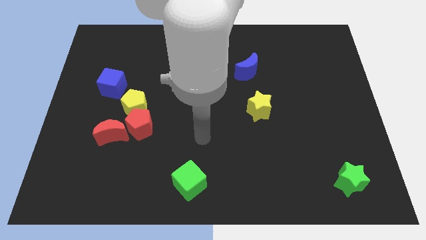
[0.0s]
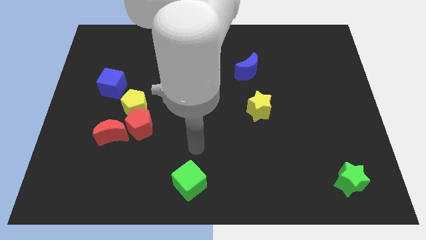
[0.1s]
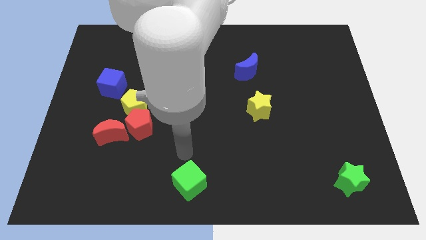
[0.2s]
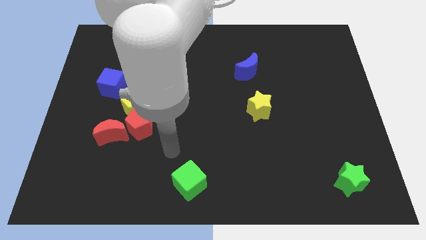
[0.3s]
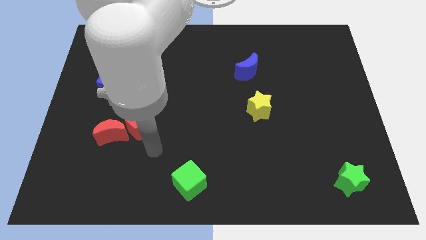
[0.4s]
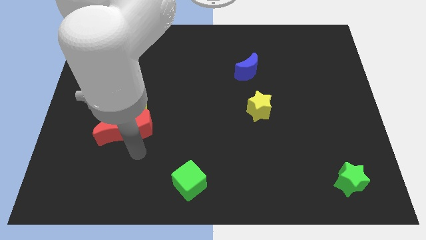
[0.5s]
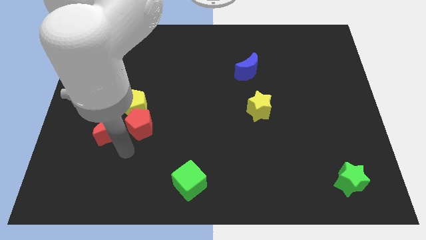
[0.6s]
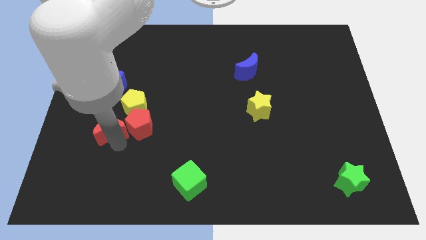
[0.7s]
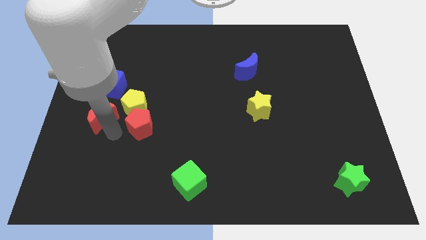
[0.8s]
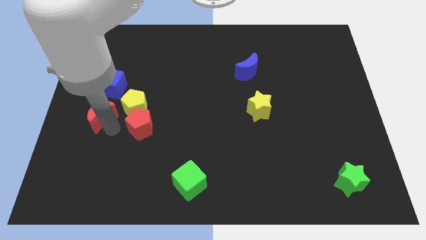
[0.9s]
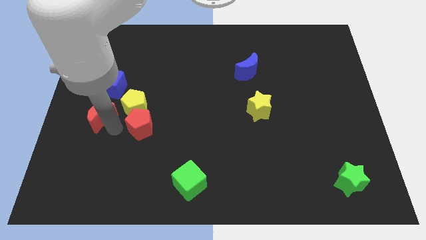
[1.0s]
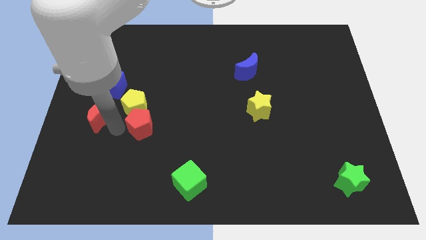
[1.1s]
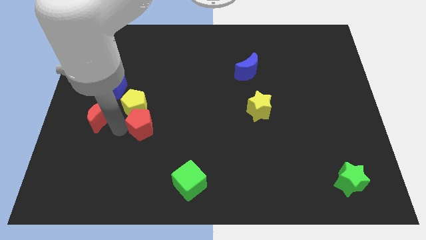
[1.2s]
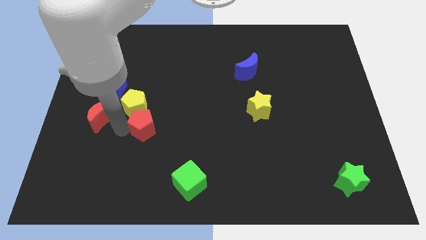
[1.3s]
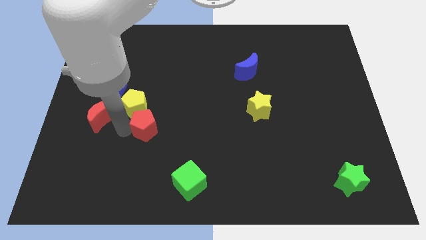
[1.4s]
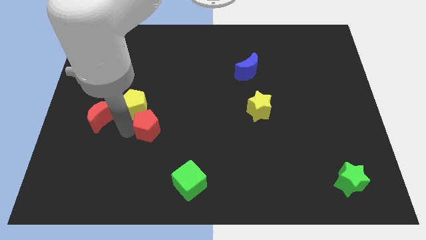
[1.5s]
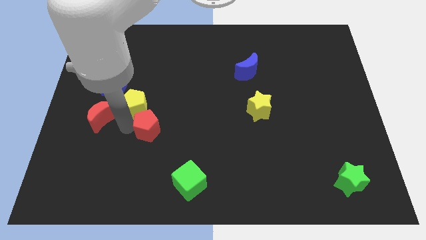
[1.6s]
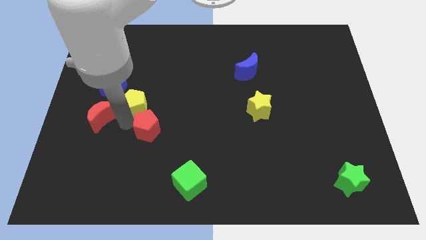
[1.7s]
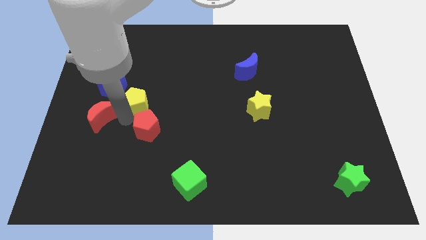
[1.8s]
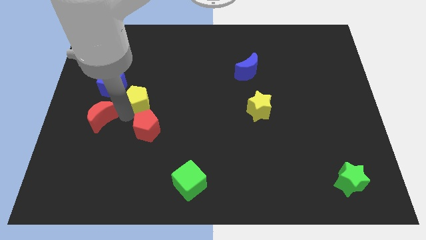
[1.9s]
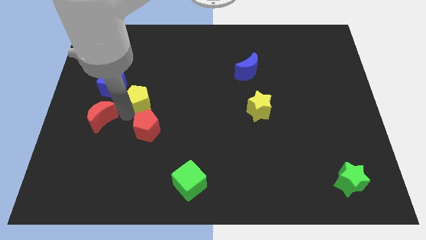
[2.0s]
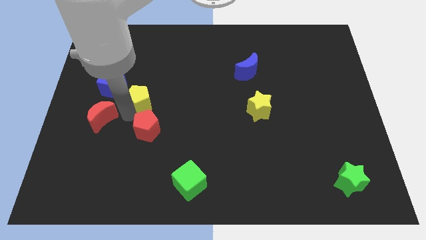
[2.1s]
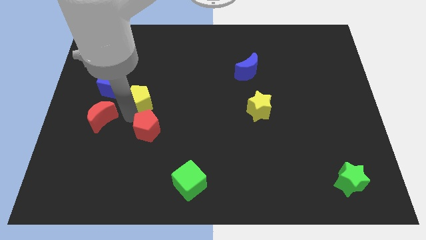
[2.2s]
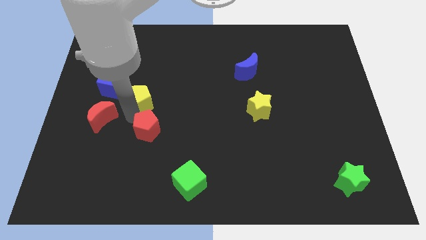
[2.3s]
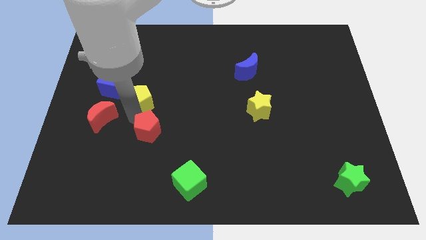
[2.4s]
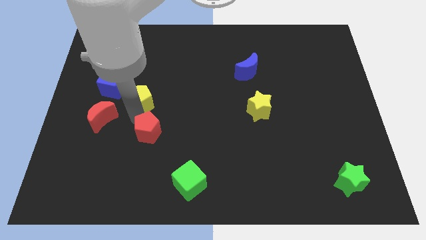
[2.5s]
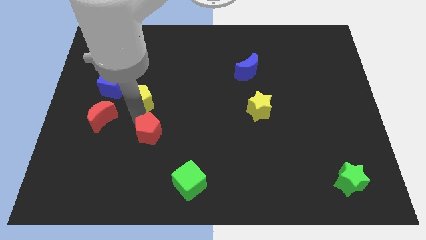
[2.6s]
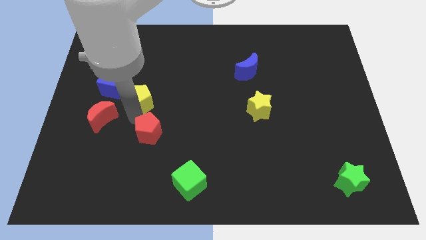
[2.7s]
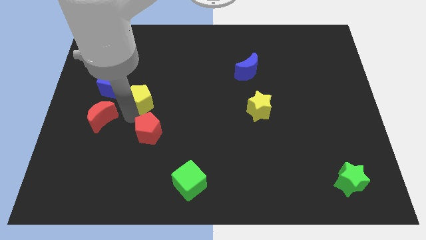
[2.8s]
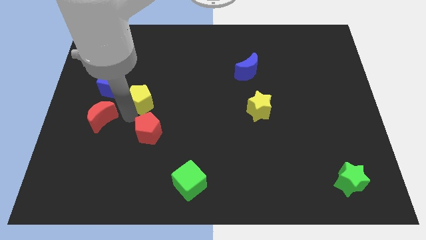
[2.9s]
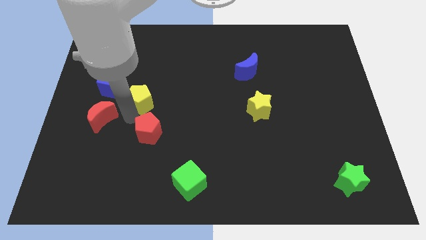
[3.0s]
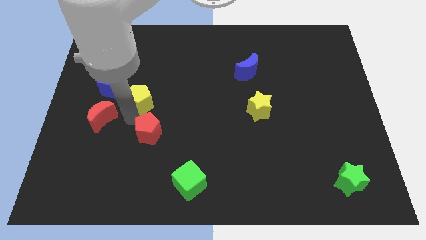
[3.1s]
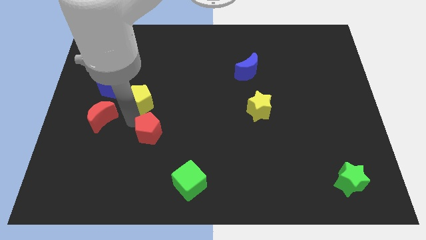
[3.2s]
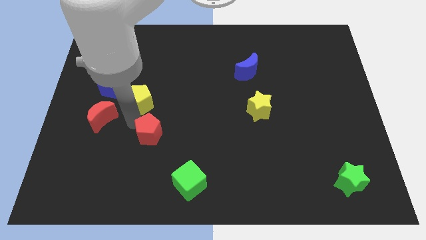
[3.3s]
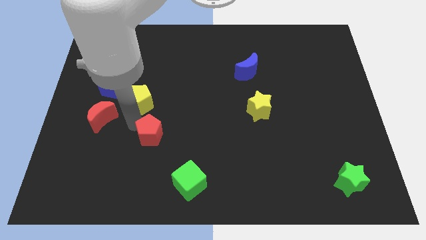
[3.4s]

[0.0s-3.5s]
pull the red pentagon apart from the yellow pentagon and red moon

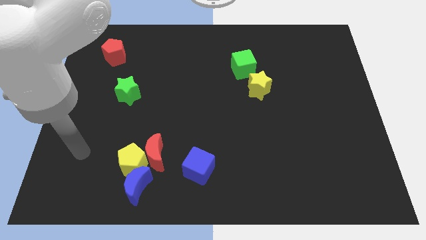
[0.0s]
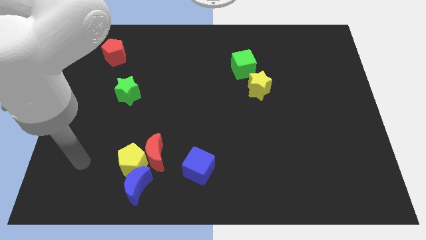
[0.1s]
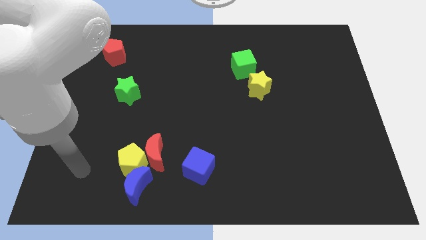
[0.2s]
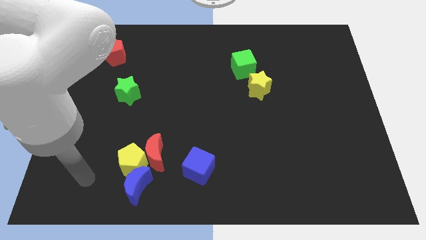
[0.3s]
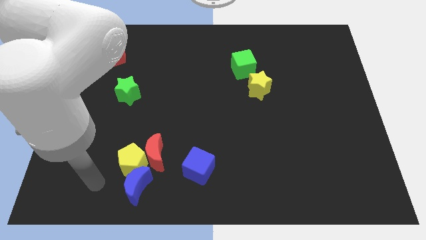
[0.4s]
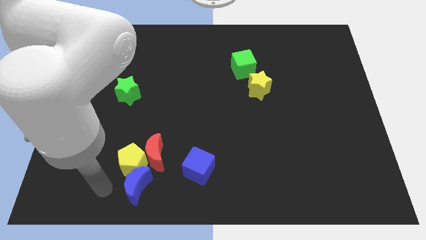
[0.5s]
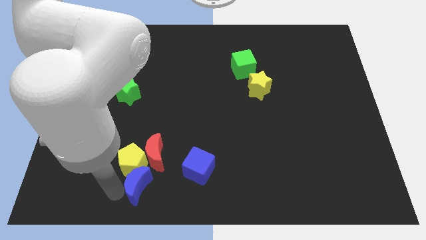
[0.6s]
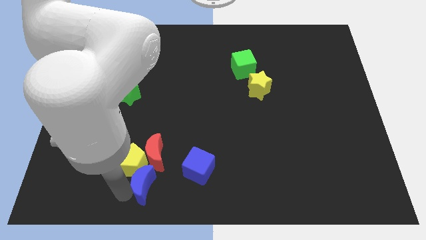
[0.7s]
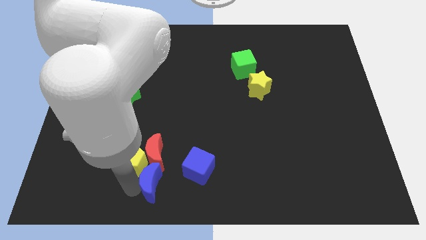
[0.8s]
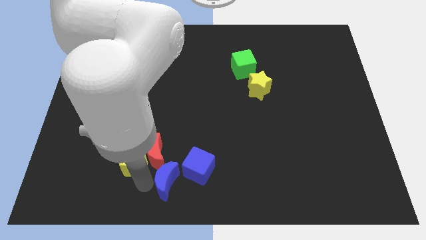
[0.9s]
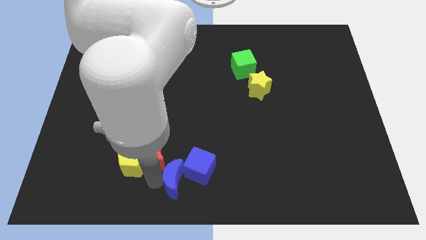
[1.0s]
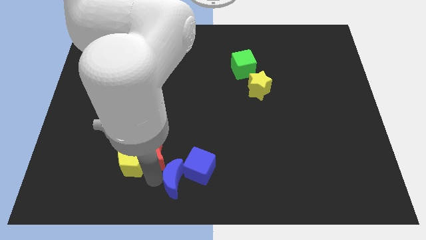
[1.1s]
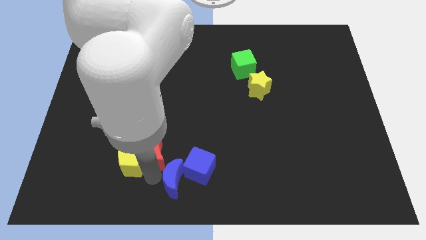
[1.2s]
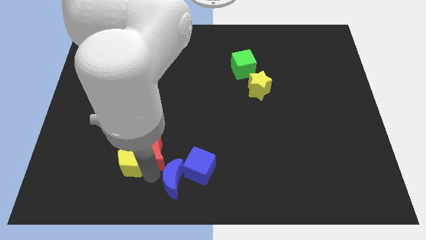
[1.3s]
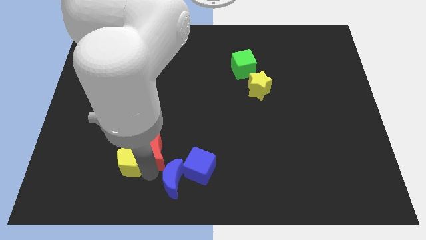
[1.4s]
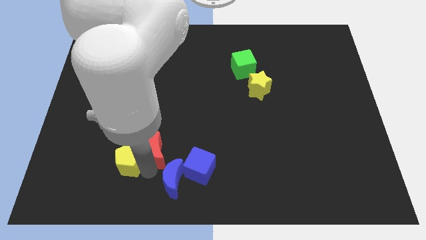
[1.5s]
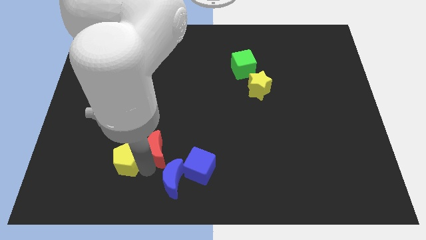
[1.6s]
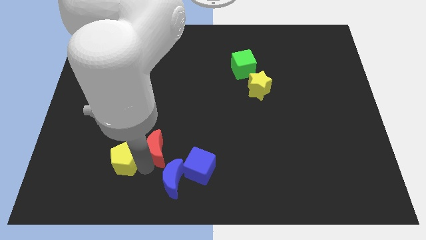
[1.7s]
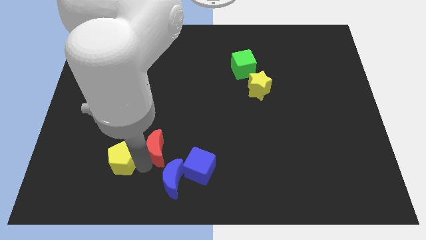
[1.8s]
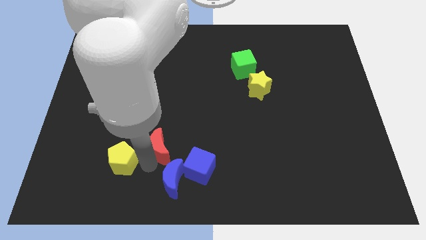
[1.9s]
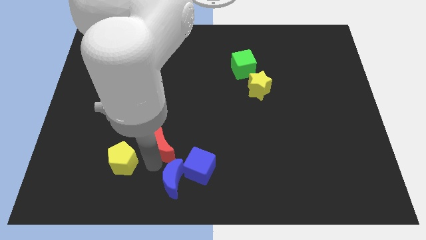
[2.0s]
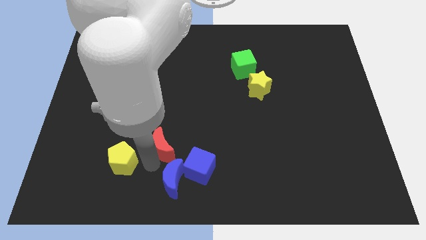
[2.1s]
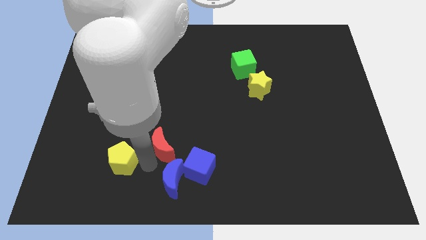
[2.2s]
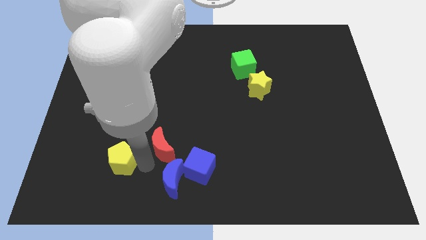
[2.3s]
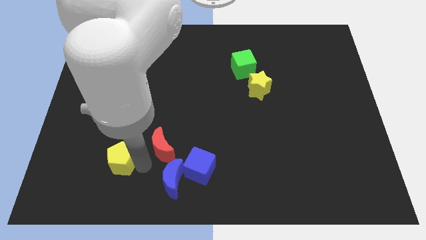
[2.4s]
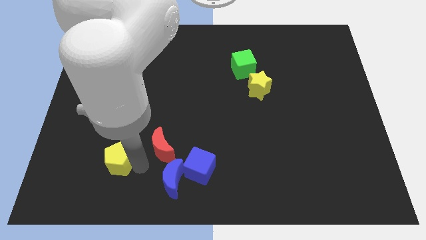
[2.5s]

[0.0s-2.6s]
move the yellow pentagon away from the red moon and blue moon

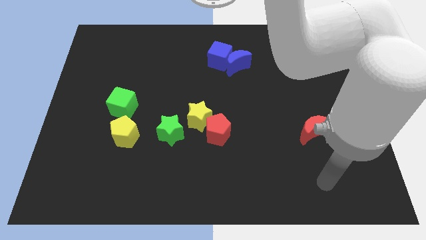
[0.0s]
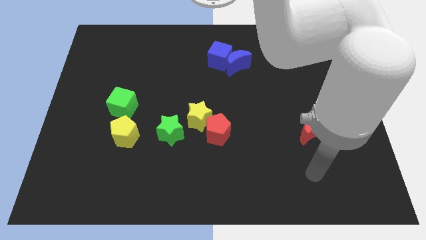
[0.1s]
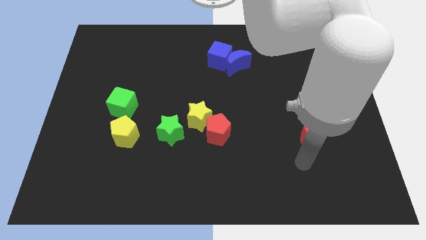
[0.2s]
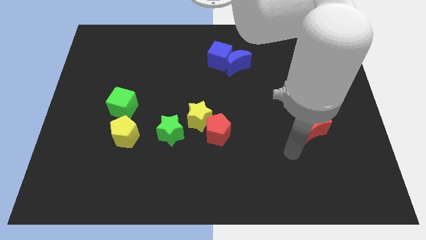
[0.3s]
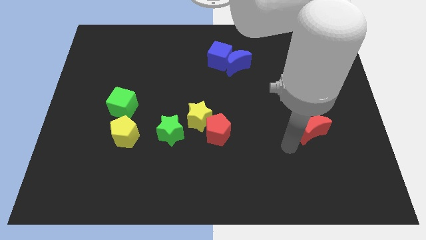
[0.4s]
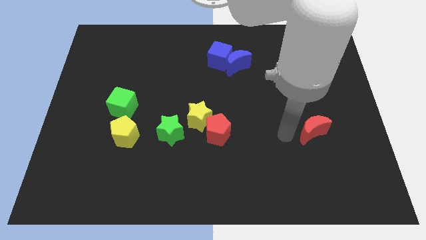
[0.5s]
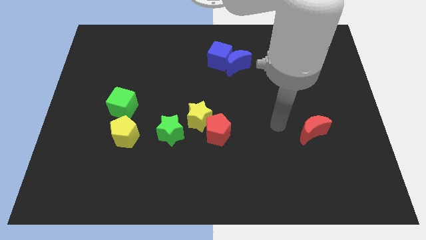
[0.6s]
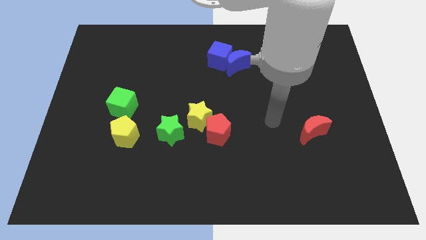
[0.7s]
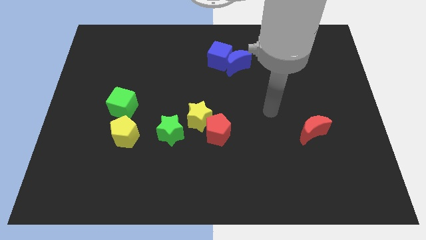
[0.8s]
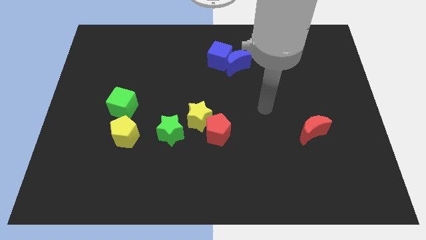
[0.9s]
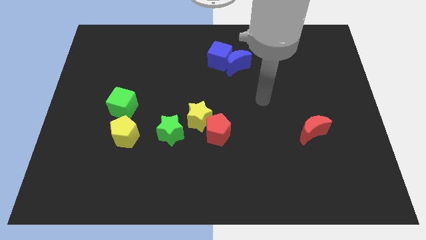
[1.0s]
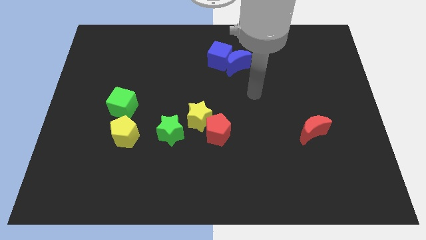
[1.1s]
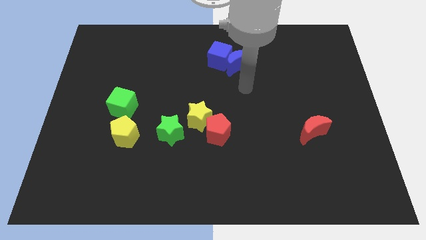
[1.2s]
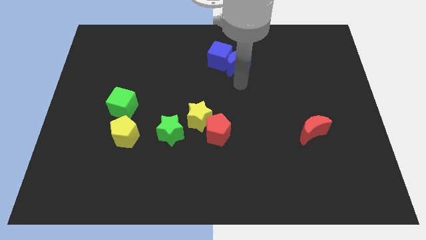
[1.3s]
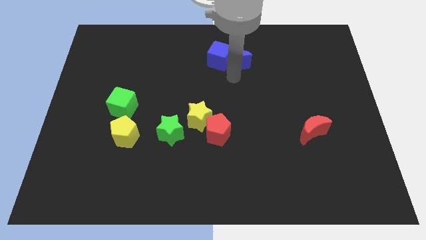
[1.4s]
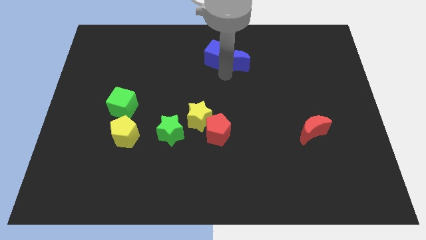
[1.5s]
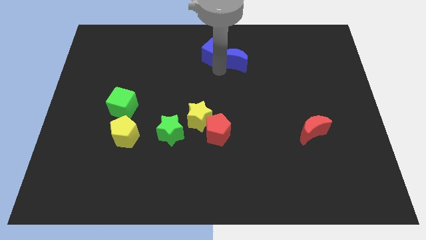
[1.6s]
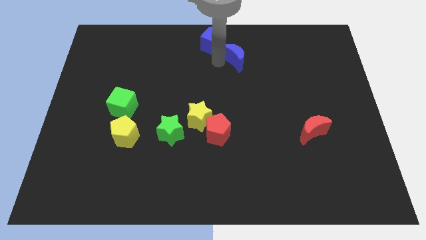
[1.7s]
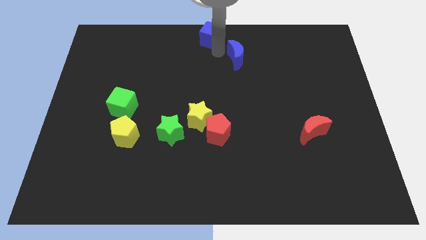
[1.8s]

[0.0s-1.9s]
pull the blue moon apart from the blue cube

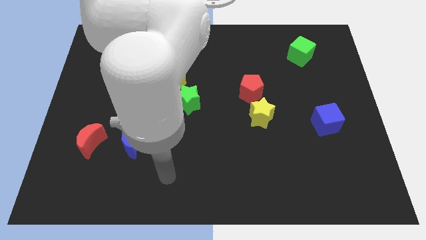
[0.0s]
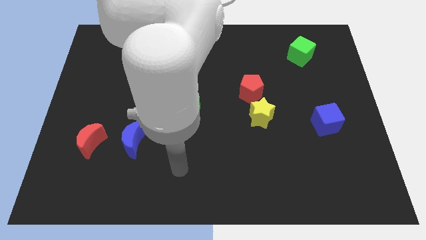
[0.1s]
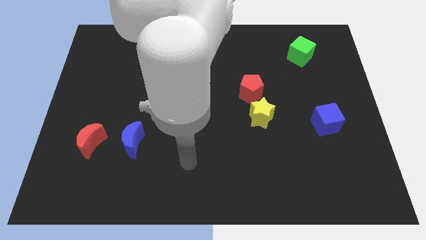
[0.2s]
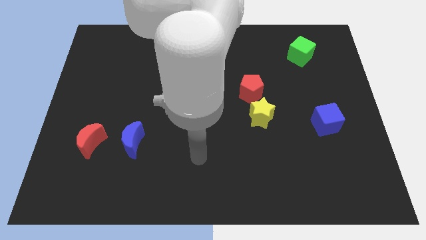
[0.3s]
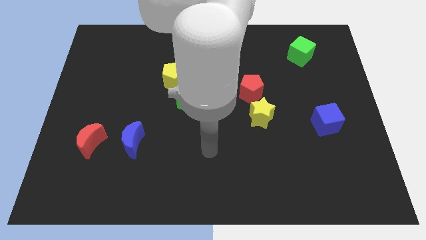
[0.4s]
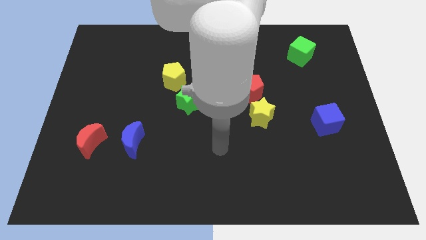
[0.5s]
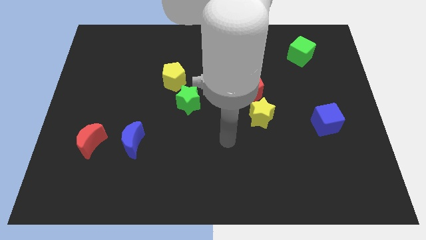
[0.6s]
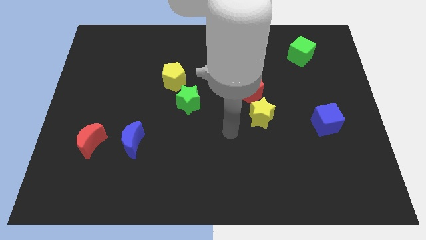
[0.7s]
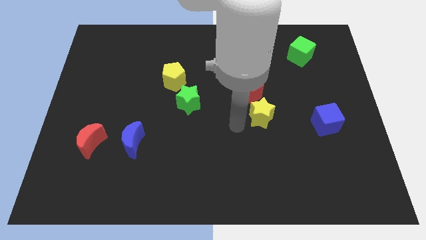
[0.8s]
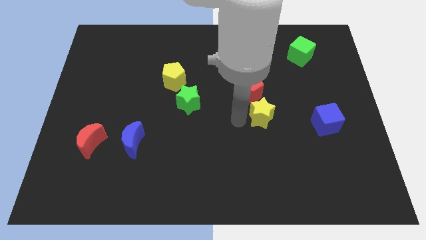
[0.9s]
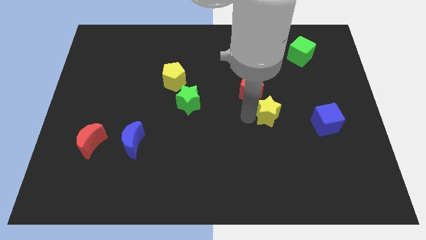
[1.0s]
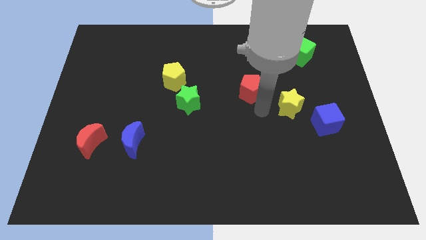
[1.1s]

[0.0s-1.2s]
pull the red pentagon apart from the yellow star
